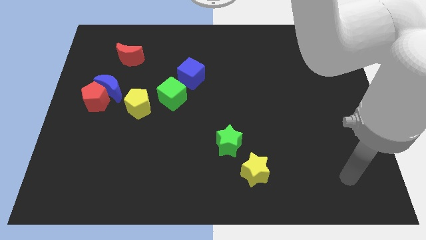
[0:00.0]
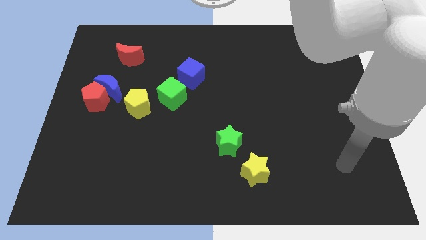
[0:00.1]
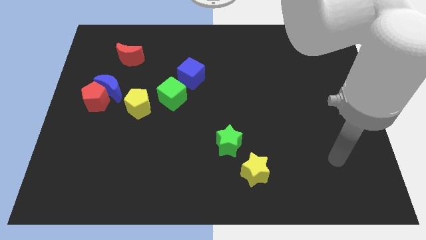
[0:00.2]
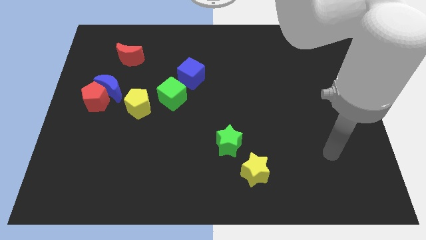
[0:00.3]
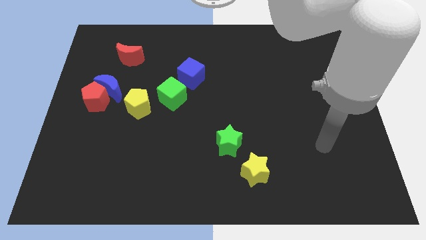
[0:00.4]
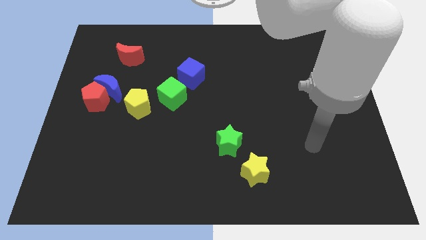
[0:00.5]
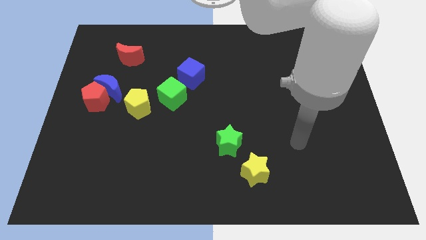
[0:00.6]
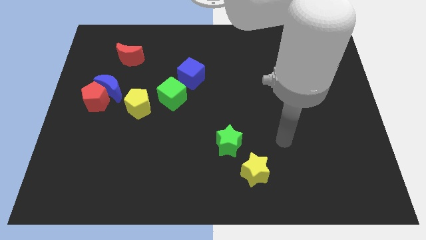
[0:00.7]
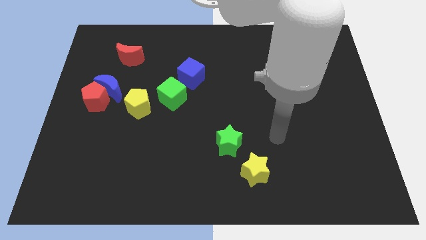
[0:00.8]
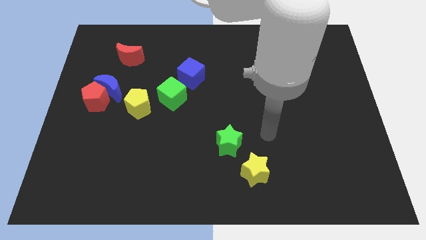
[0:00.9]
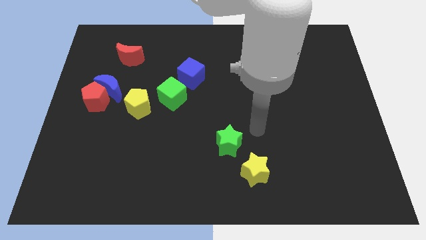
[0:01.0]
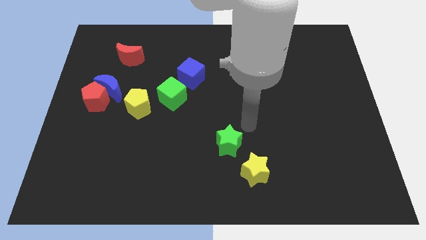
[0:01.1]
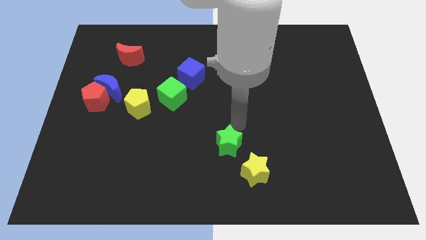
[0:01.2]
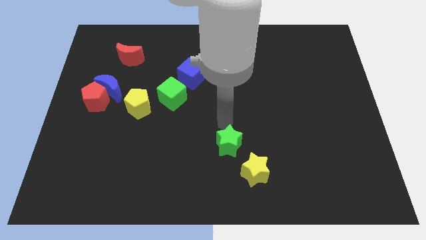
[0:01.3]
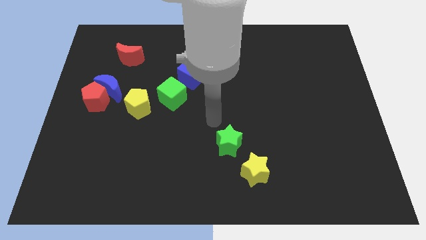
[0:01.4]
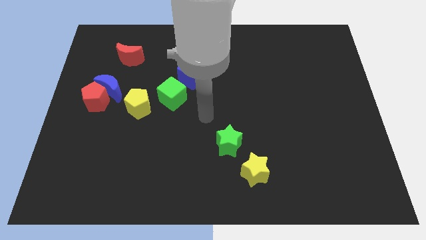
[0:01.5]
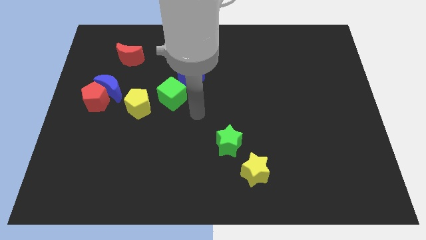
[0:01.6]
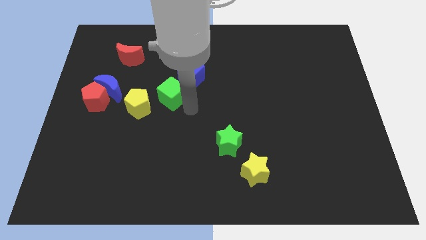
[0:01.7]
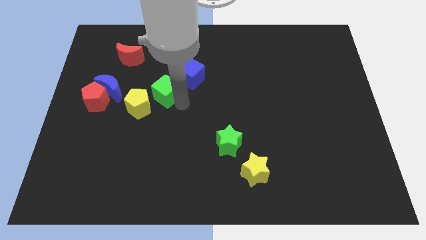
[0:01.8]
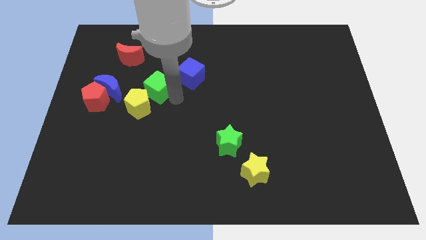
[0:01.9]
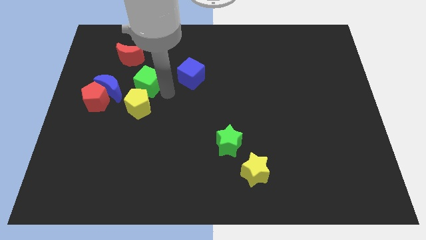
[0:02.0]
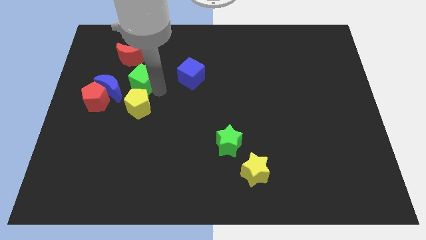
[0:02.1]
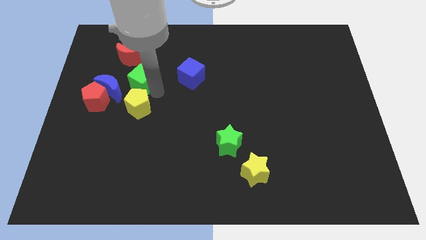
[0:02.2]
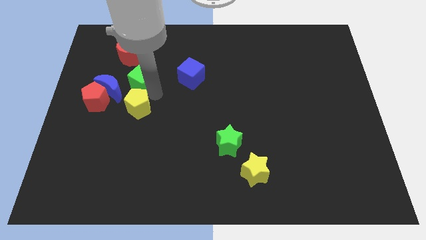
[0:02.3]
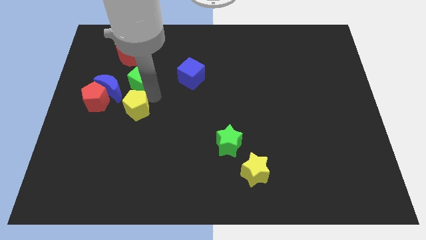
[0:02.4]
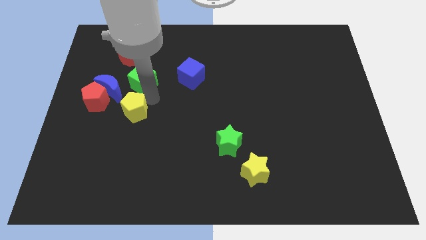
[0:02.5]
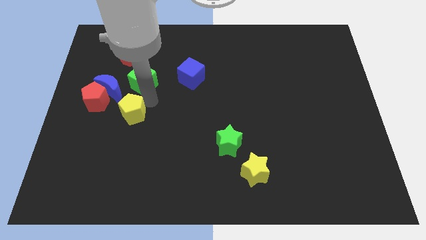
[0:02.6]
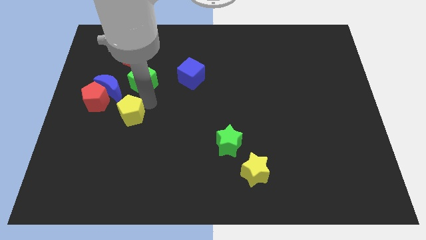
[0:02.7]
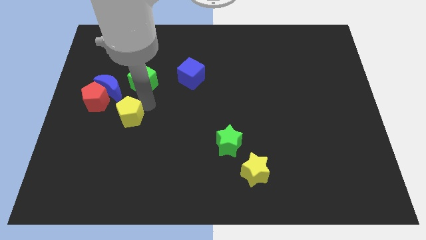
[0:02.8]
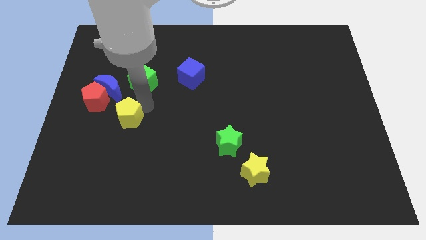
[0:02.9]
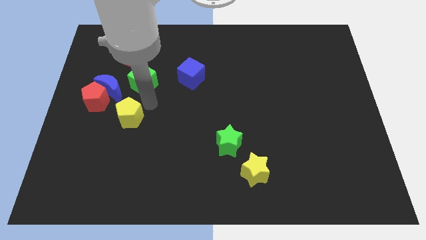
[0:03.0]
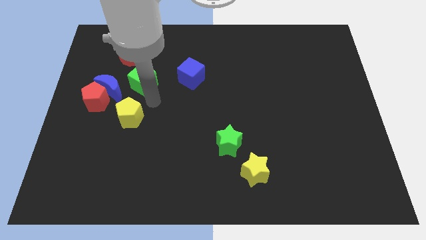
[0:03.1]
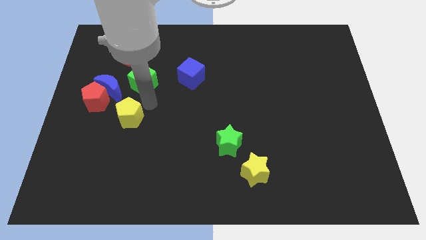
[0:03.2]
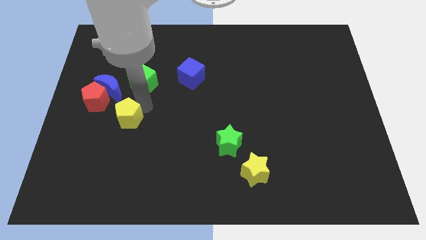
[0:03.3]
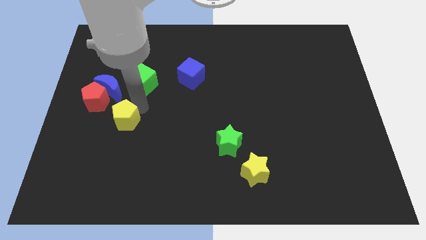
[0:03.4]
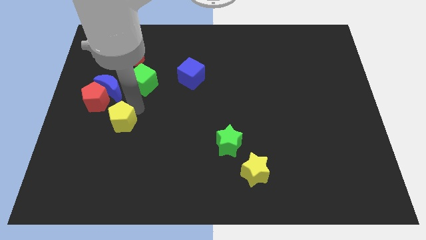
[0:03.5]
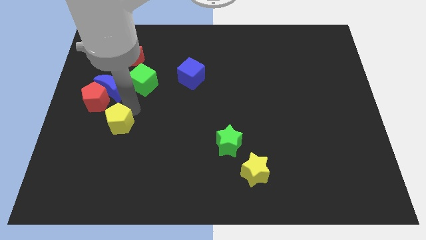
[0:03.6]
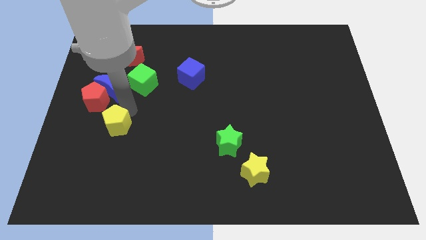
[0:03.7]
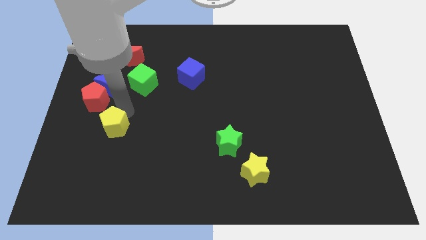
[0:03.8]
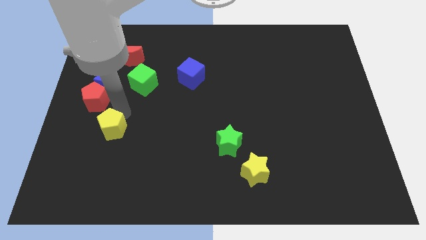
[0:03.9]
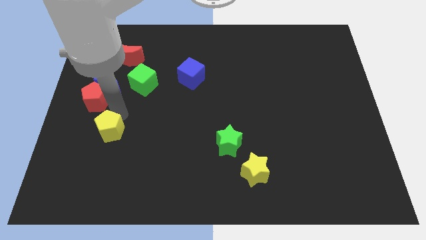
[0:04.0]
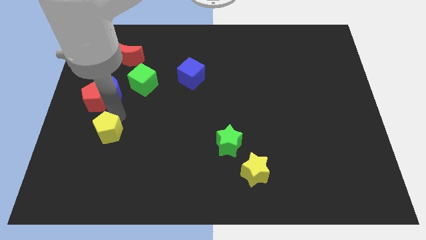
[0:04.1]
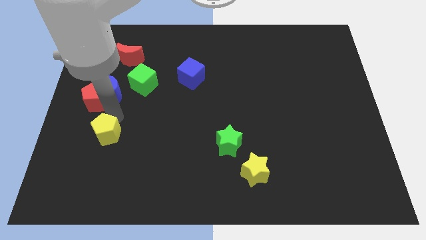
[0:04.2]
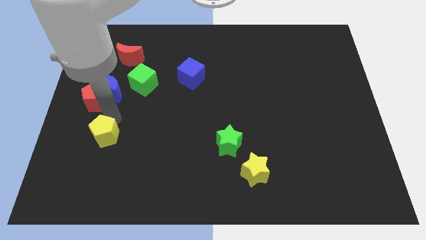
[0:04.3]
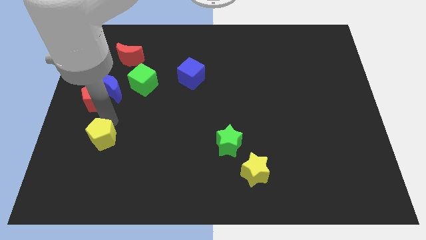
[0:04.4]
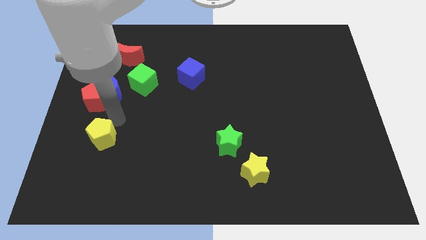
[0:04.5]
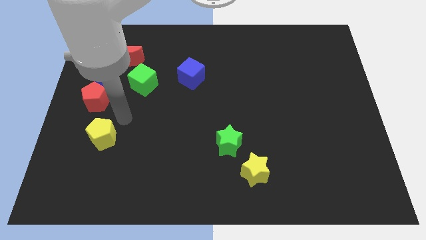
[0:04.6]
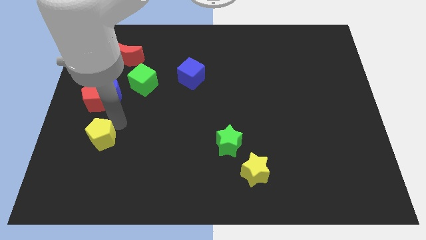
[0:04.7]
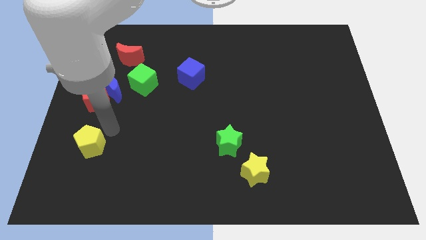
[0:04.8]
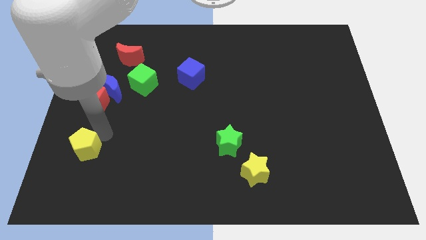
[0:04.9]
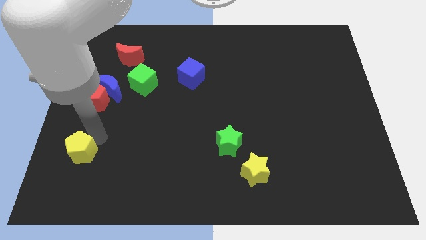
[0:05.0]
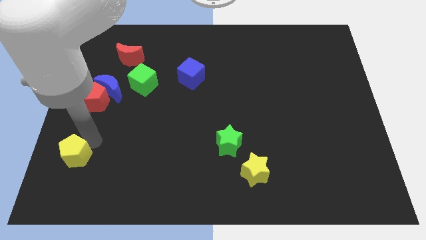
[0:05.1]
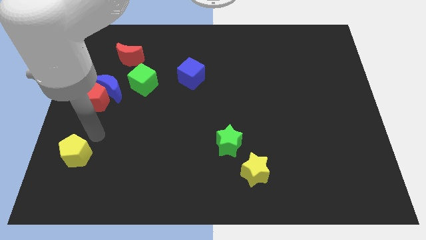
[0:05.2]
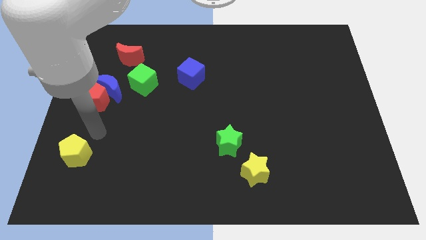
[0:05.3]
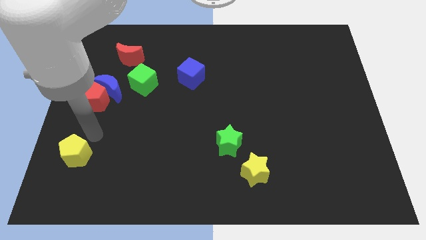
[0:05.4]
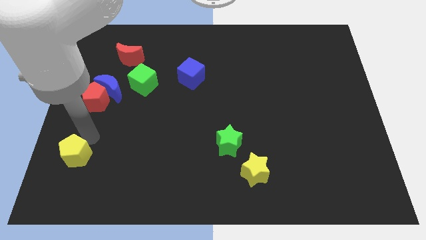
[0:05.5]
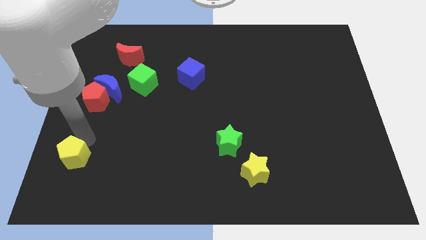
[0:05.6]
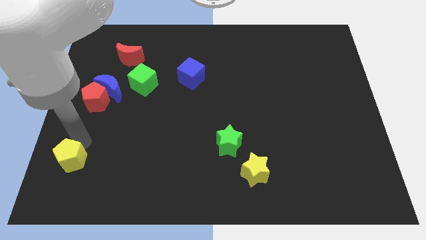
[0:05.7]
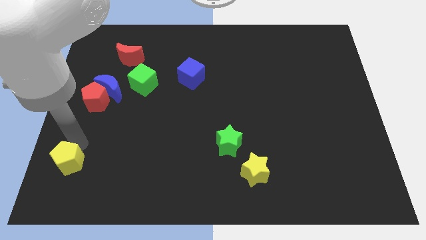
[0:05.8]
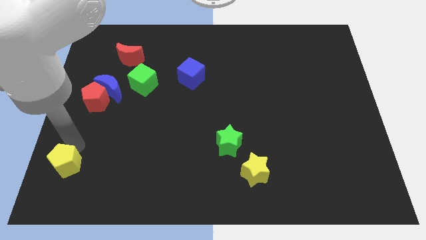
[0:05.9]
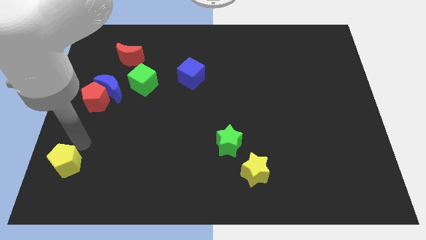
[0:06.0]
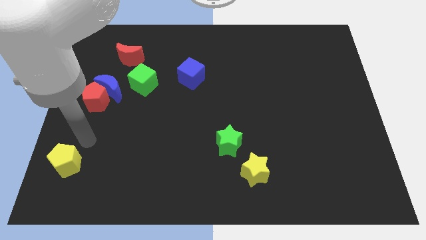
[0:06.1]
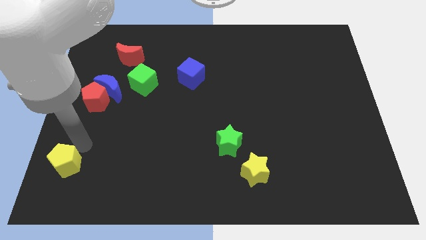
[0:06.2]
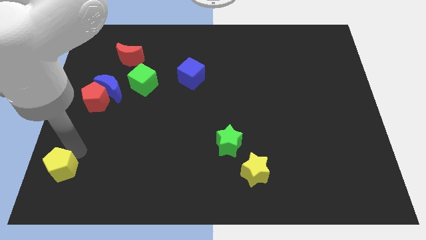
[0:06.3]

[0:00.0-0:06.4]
push the yellow pentagon to the lower left corner

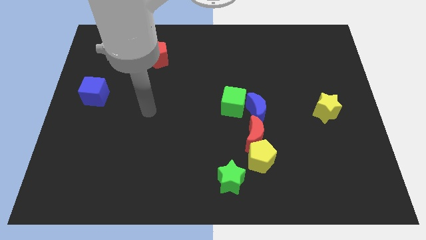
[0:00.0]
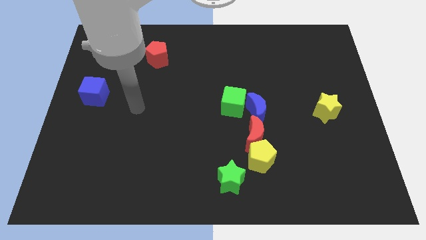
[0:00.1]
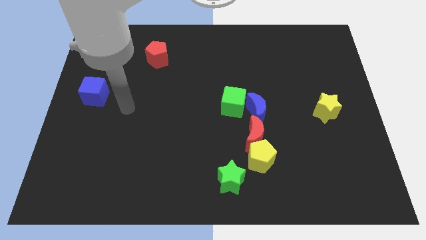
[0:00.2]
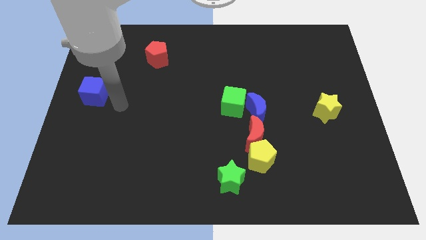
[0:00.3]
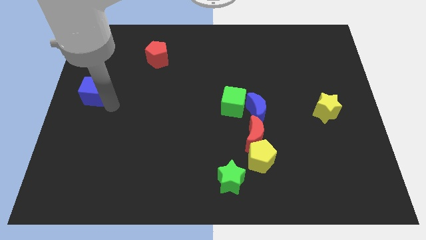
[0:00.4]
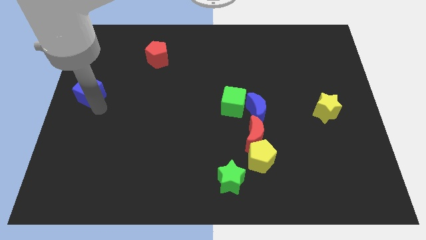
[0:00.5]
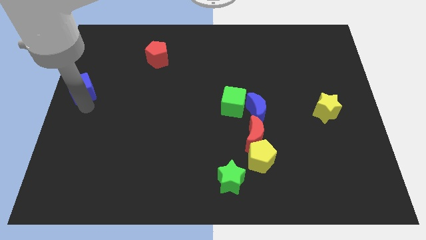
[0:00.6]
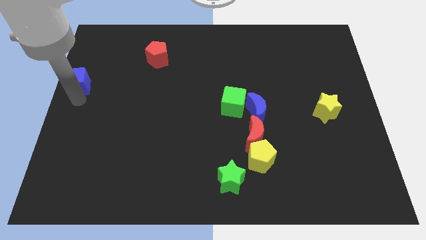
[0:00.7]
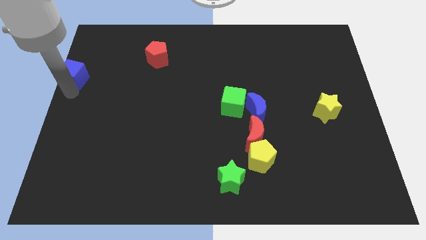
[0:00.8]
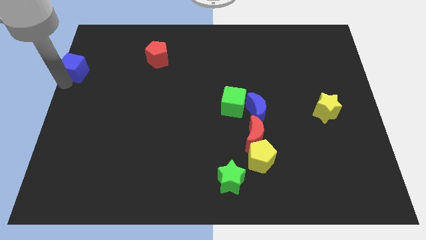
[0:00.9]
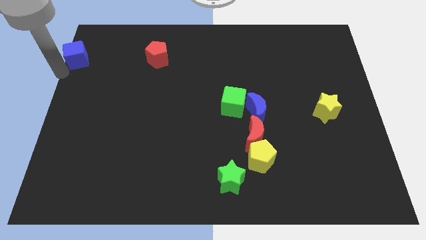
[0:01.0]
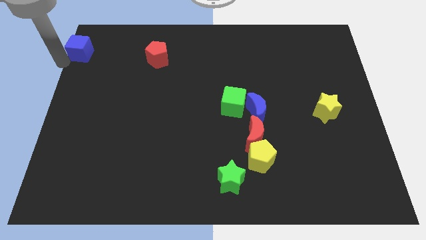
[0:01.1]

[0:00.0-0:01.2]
push the blue cube to the top left
